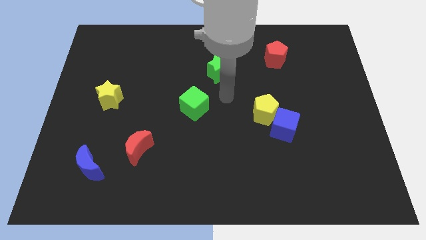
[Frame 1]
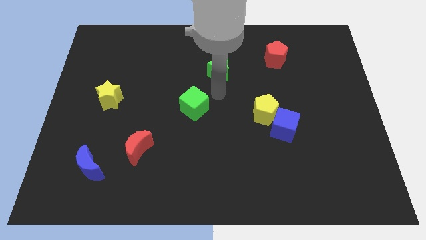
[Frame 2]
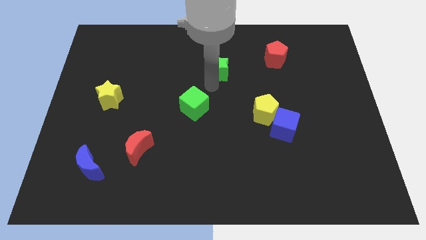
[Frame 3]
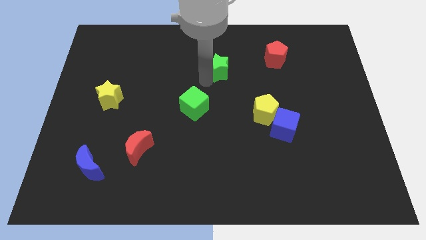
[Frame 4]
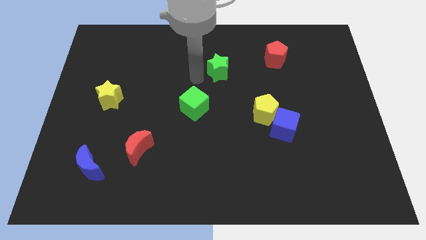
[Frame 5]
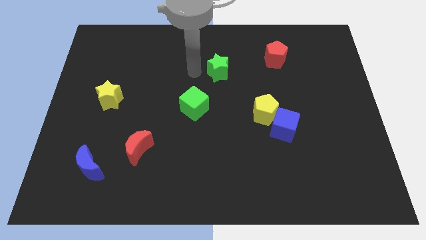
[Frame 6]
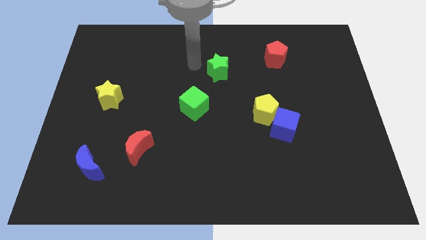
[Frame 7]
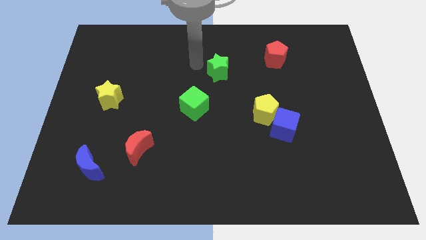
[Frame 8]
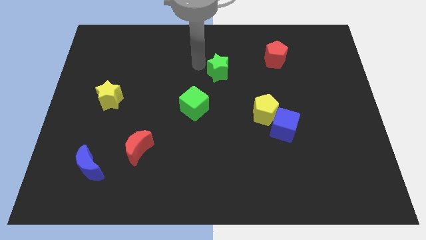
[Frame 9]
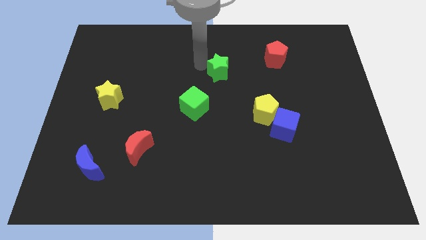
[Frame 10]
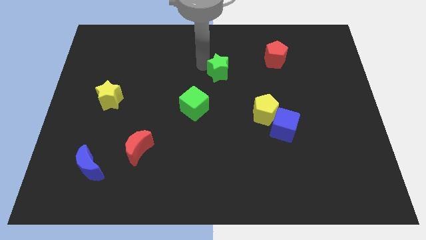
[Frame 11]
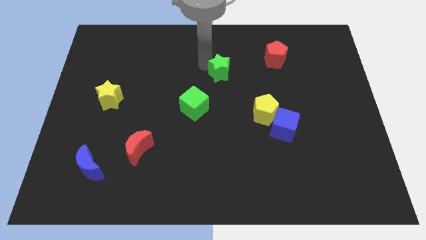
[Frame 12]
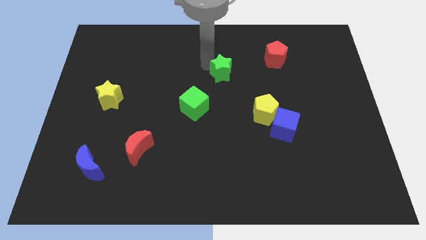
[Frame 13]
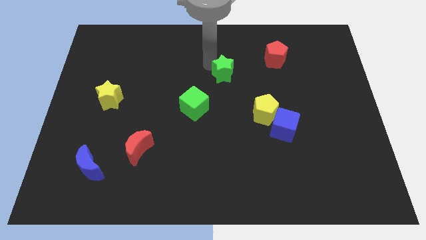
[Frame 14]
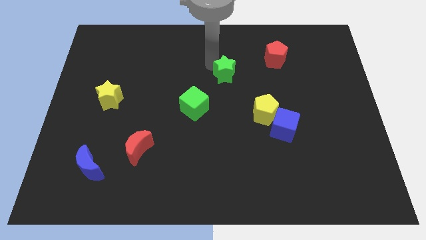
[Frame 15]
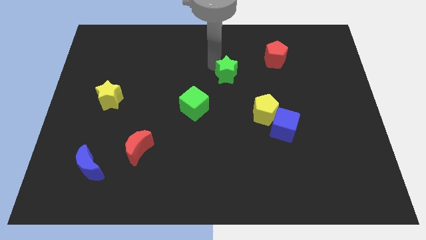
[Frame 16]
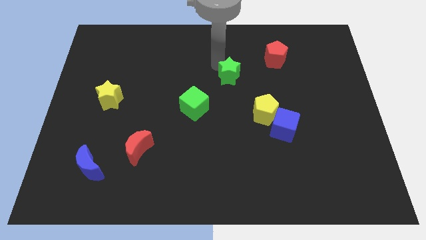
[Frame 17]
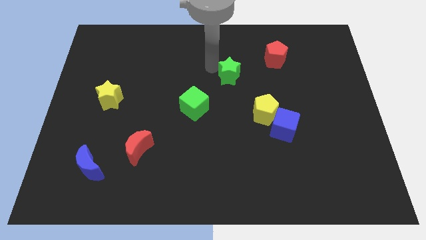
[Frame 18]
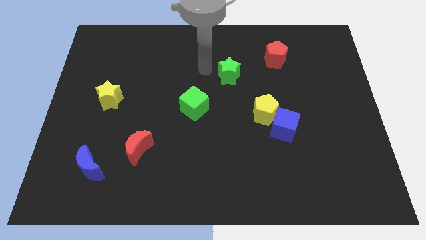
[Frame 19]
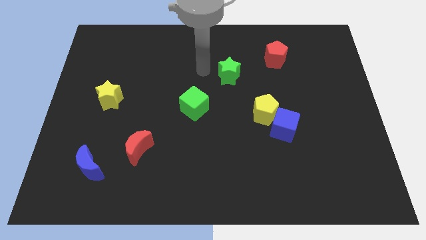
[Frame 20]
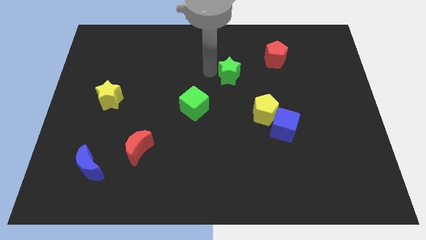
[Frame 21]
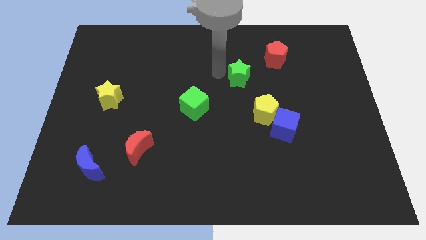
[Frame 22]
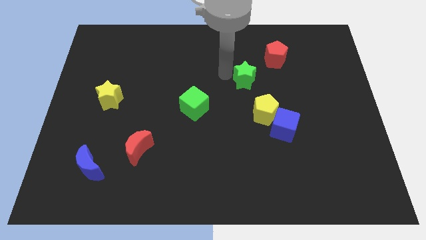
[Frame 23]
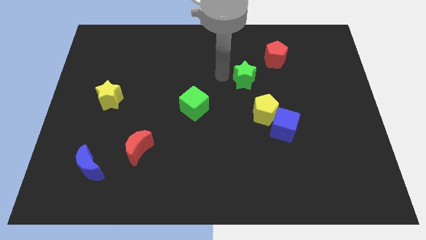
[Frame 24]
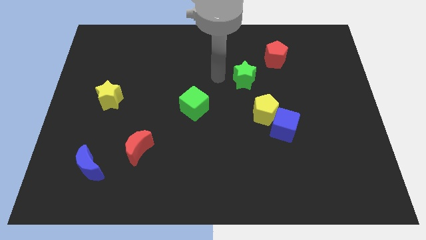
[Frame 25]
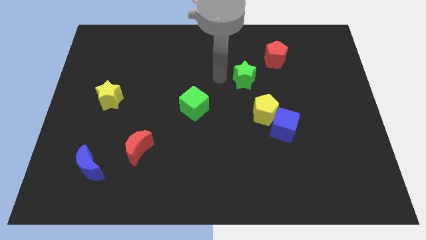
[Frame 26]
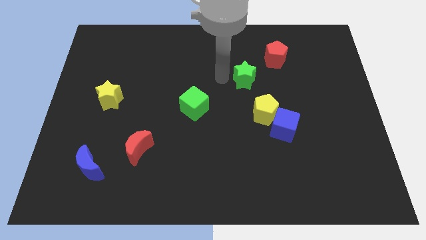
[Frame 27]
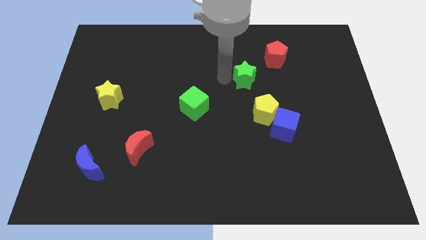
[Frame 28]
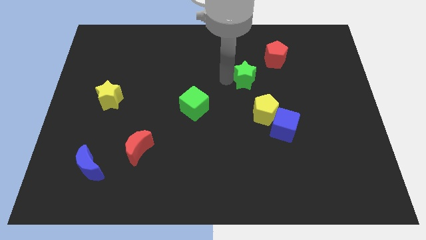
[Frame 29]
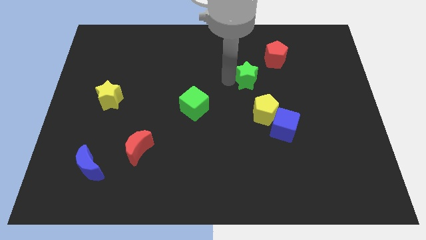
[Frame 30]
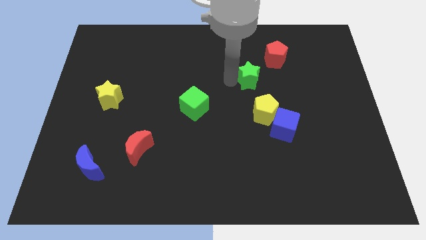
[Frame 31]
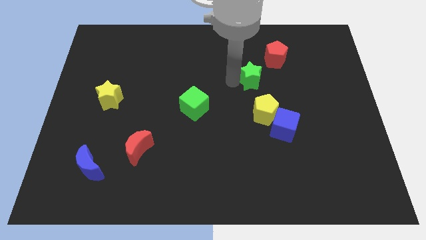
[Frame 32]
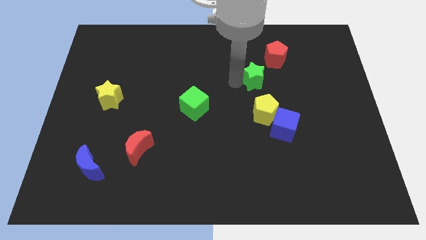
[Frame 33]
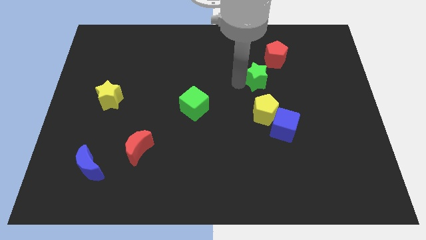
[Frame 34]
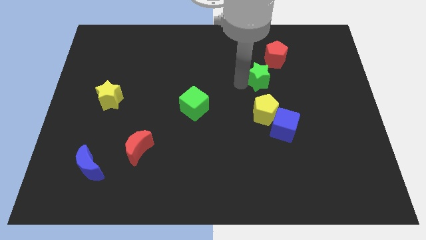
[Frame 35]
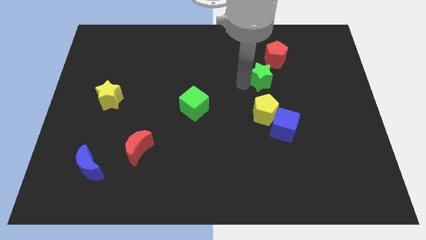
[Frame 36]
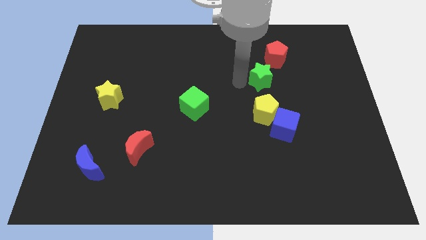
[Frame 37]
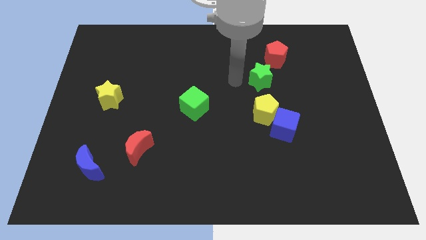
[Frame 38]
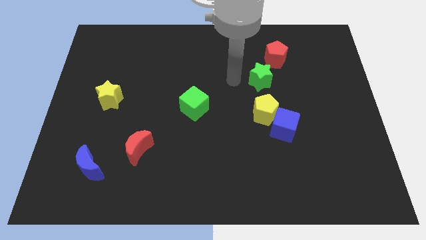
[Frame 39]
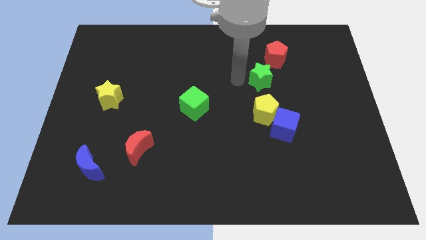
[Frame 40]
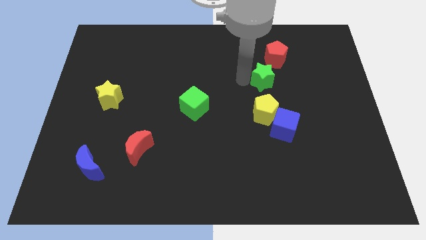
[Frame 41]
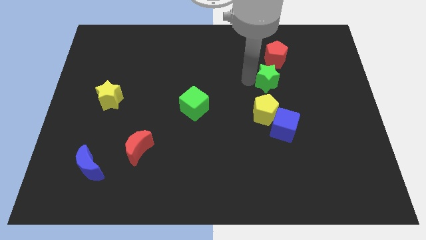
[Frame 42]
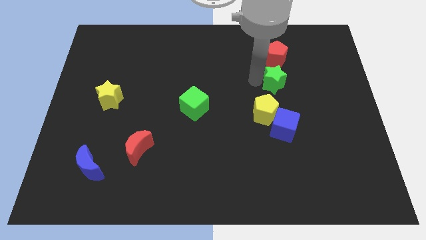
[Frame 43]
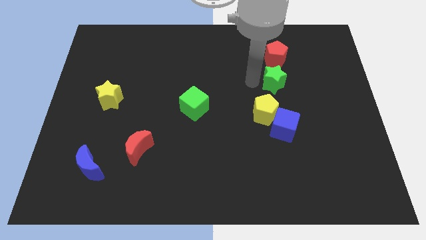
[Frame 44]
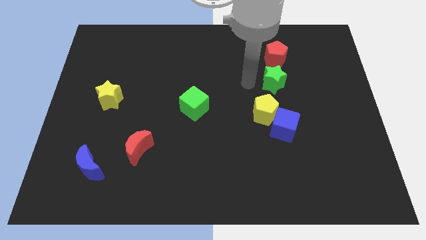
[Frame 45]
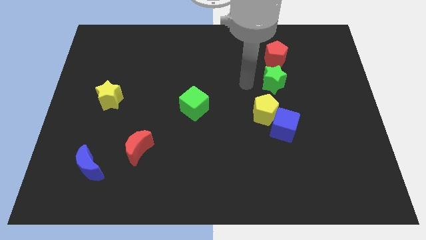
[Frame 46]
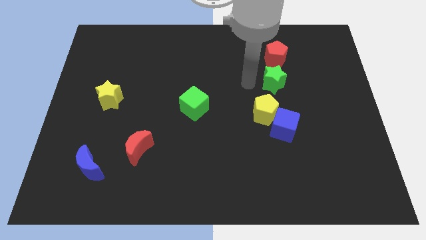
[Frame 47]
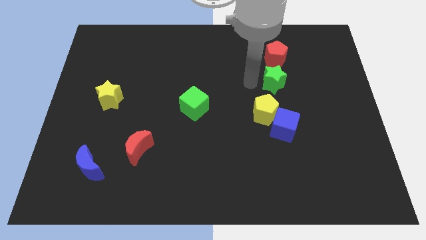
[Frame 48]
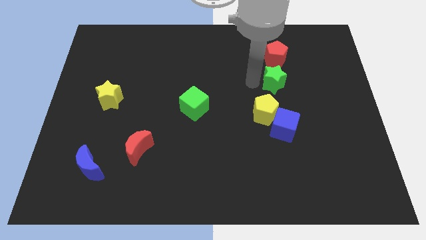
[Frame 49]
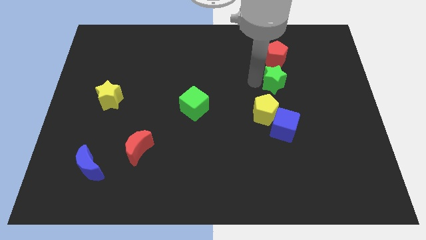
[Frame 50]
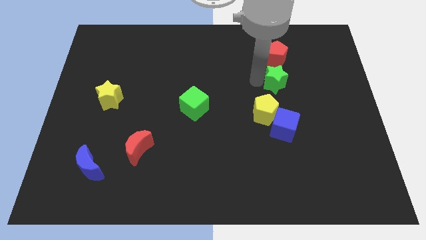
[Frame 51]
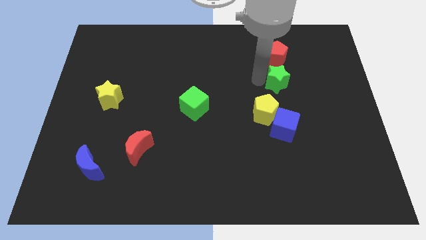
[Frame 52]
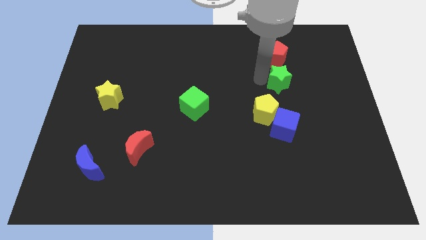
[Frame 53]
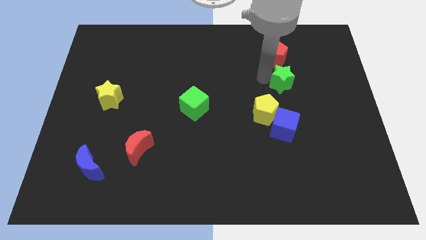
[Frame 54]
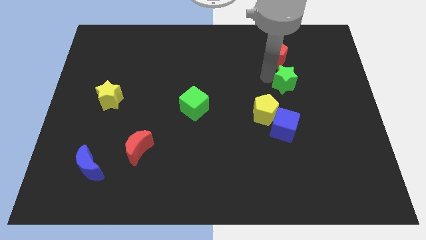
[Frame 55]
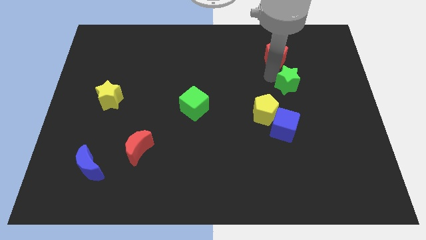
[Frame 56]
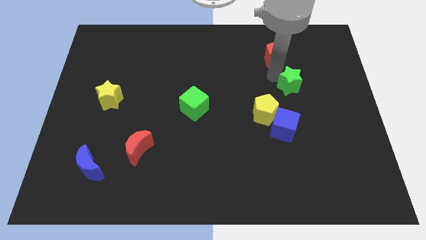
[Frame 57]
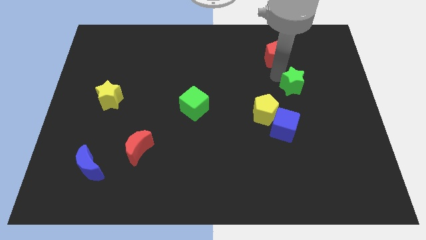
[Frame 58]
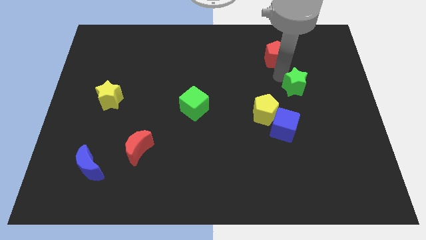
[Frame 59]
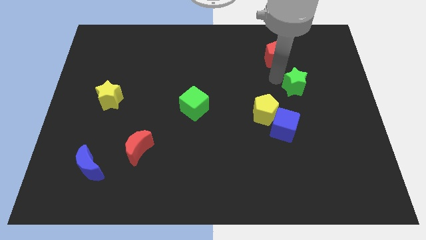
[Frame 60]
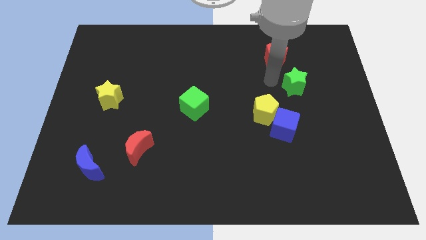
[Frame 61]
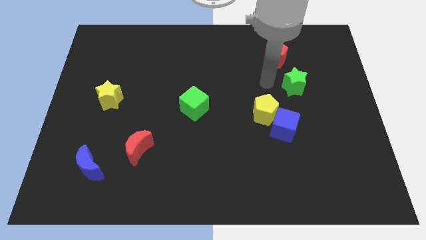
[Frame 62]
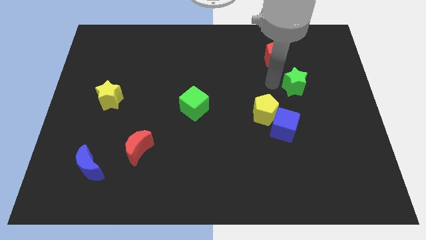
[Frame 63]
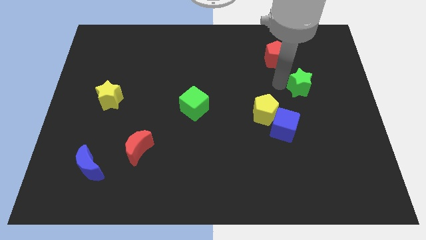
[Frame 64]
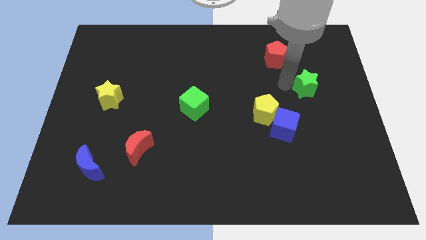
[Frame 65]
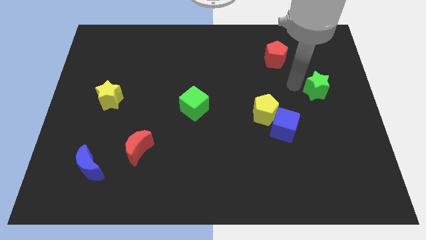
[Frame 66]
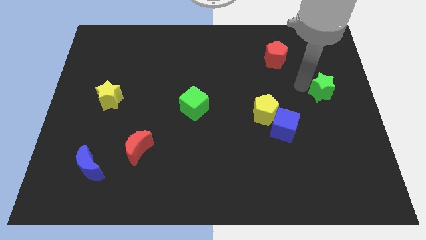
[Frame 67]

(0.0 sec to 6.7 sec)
slide the green star to the right side of the board
